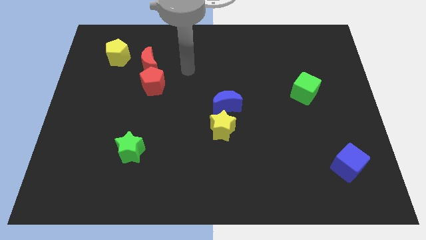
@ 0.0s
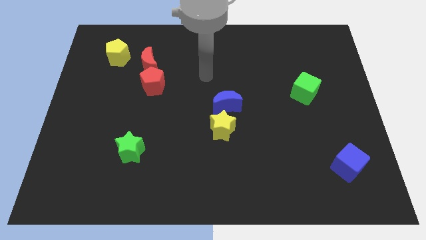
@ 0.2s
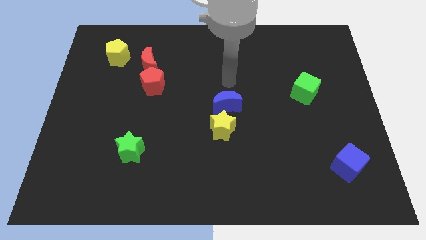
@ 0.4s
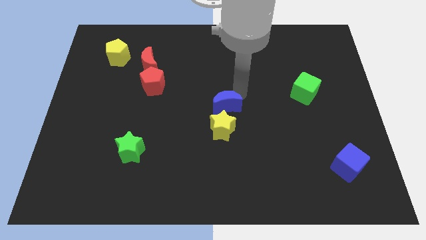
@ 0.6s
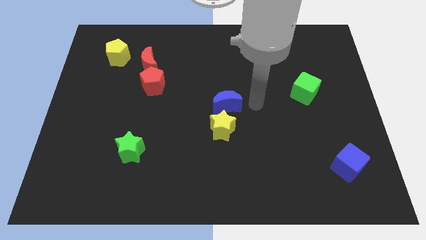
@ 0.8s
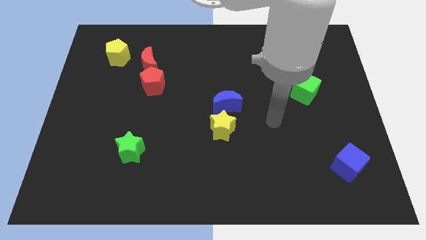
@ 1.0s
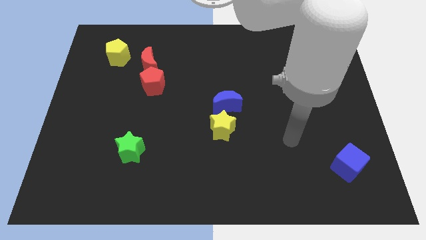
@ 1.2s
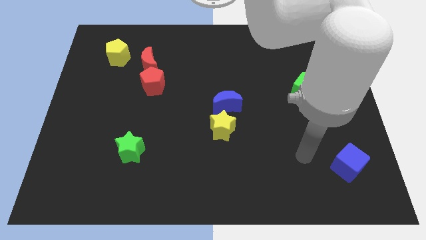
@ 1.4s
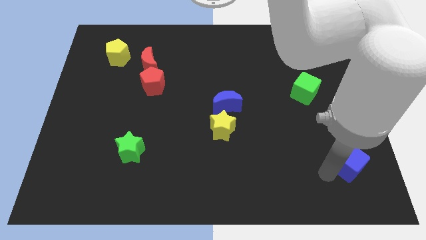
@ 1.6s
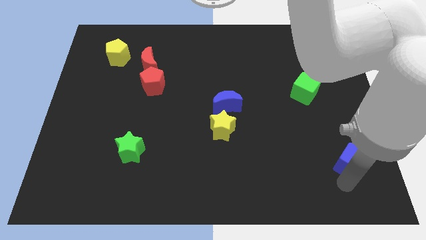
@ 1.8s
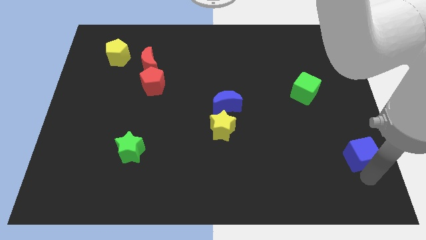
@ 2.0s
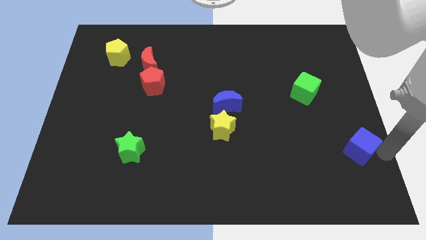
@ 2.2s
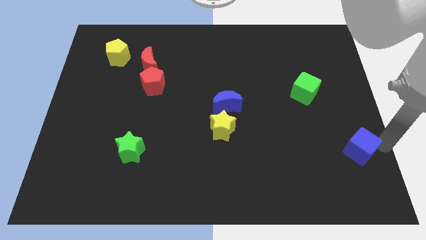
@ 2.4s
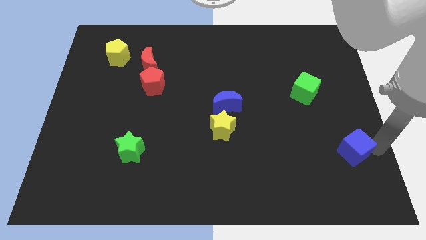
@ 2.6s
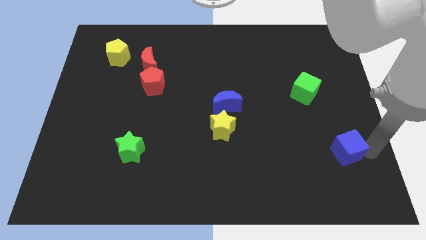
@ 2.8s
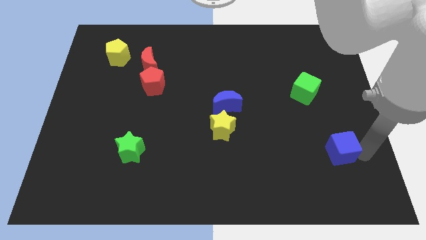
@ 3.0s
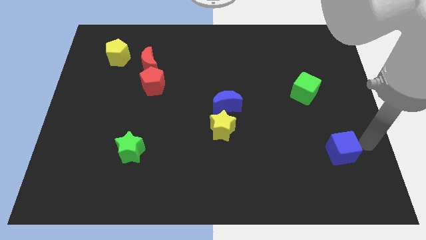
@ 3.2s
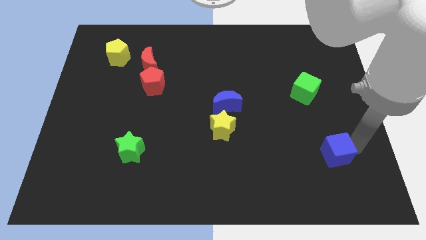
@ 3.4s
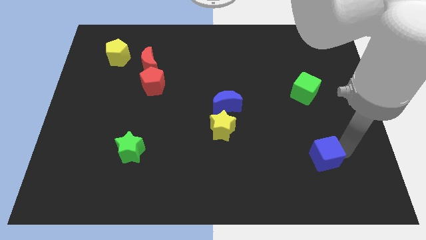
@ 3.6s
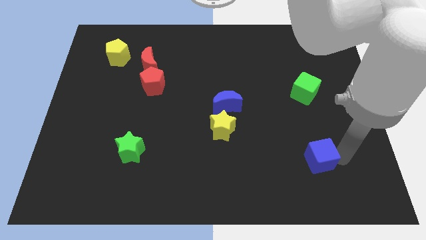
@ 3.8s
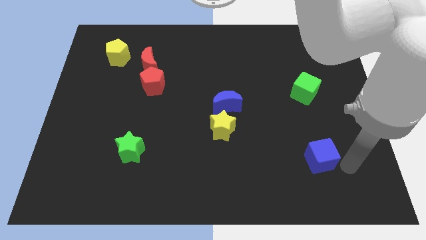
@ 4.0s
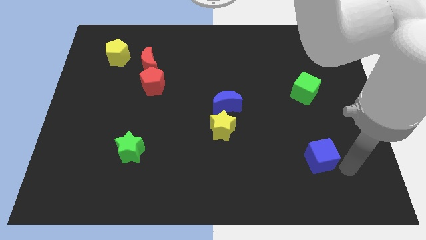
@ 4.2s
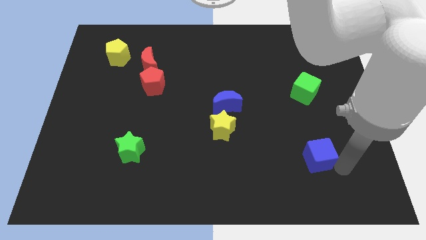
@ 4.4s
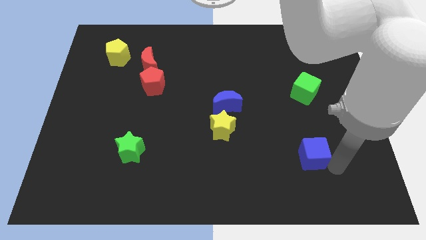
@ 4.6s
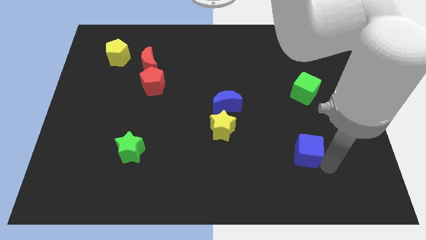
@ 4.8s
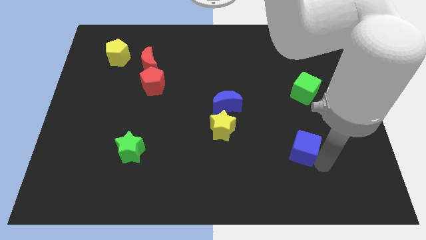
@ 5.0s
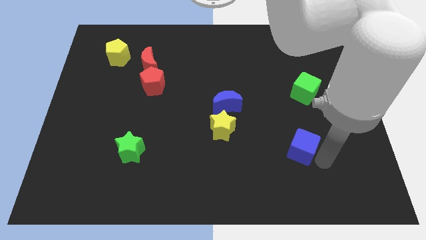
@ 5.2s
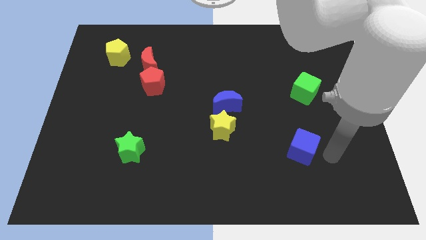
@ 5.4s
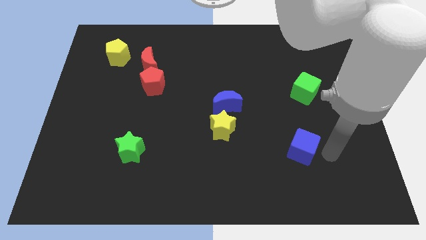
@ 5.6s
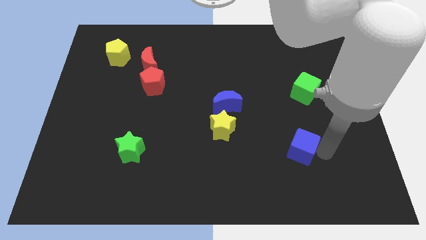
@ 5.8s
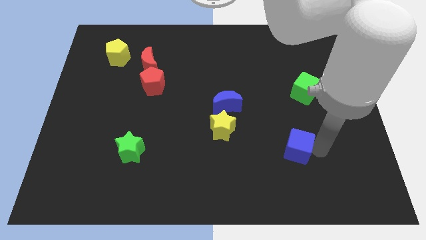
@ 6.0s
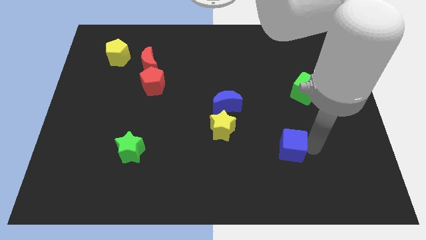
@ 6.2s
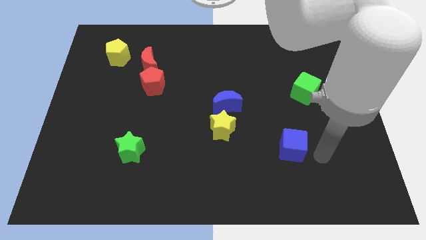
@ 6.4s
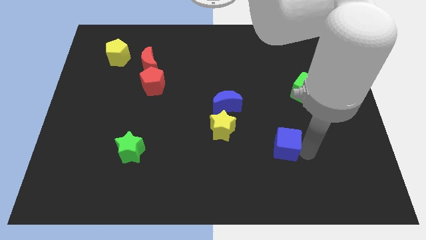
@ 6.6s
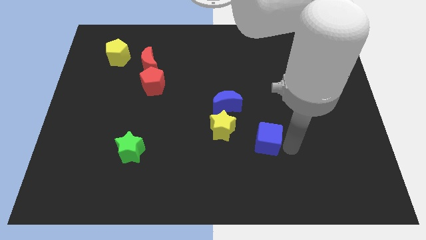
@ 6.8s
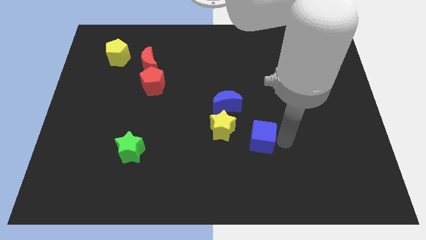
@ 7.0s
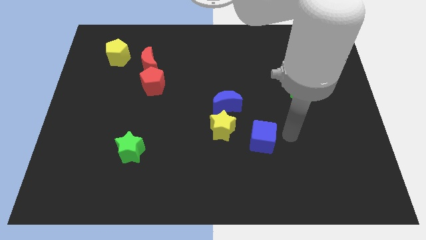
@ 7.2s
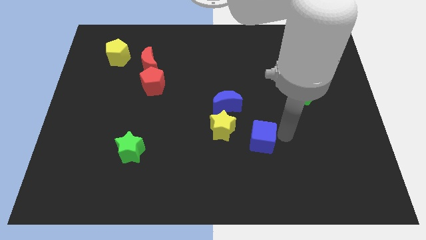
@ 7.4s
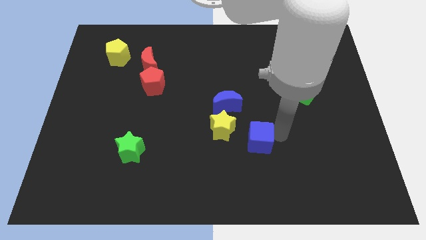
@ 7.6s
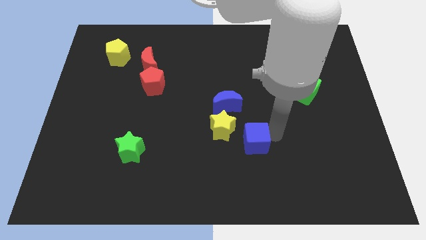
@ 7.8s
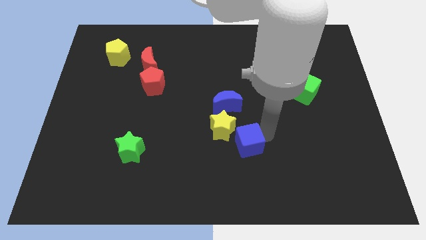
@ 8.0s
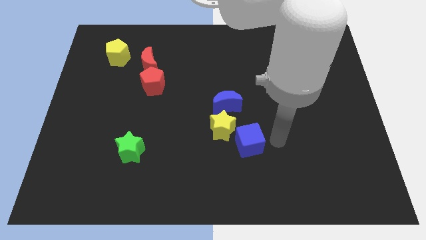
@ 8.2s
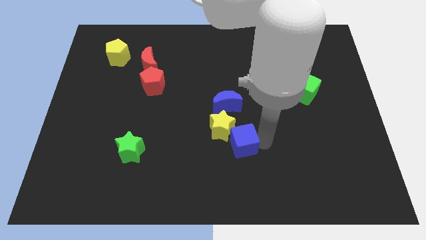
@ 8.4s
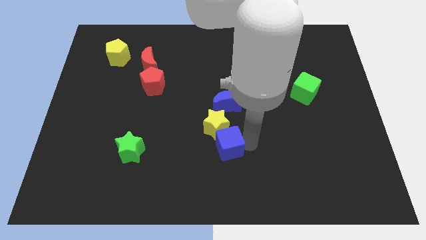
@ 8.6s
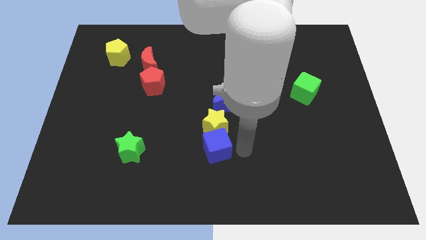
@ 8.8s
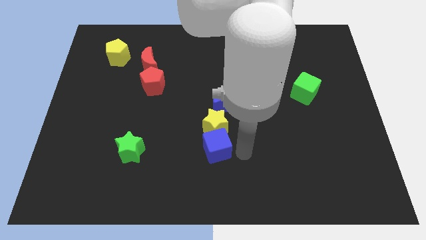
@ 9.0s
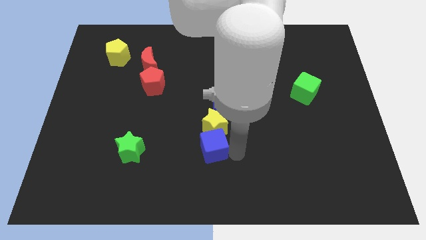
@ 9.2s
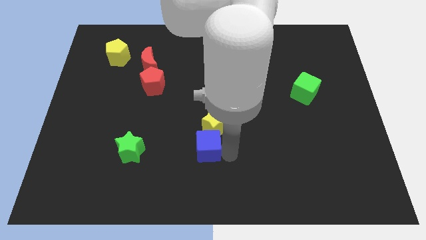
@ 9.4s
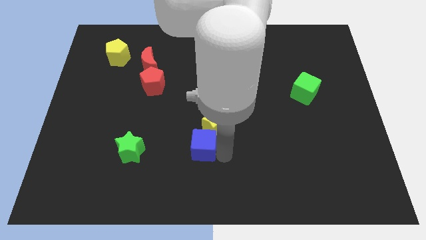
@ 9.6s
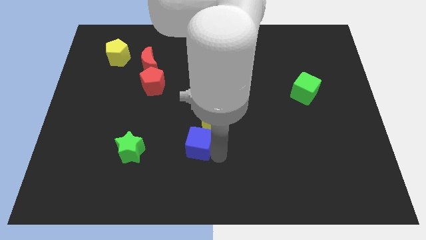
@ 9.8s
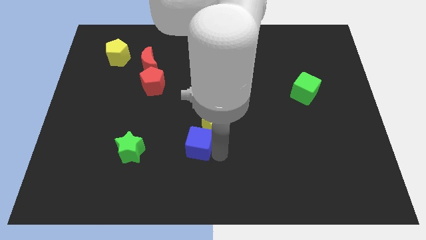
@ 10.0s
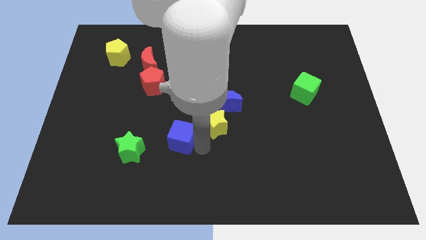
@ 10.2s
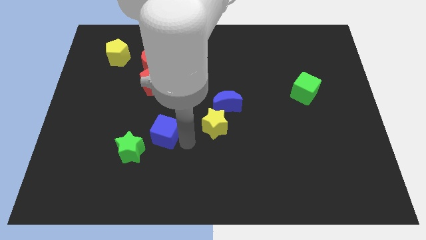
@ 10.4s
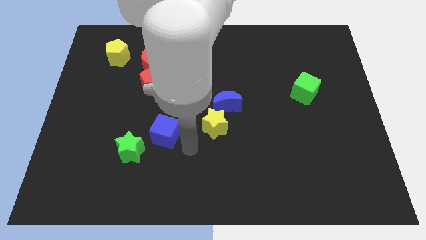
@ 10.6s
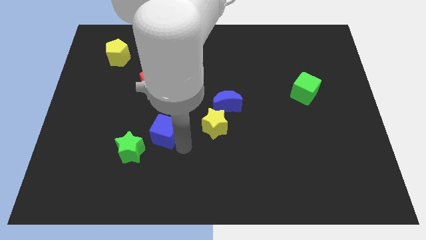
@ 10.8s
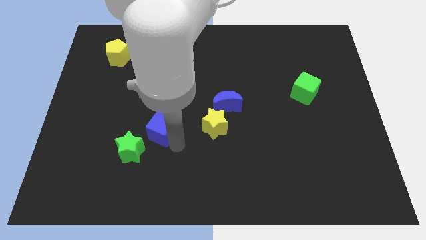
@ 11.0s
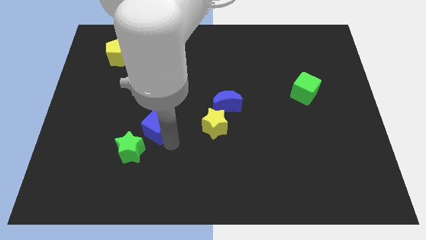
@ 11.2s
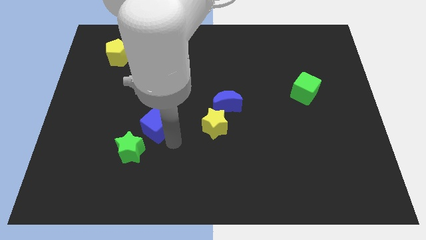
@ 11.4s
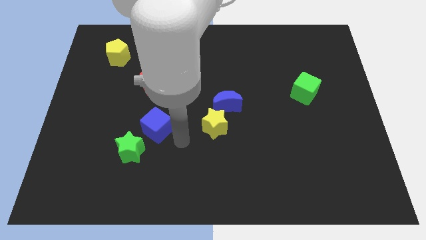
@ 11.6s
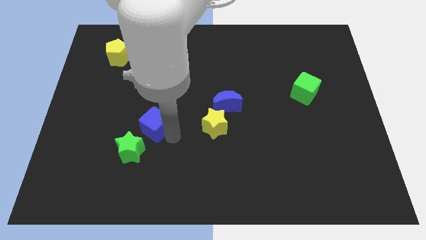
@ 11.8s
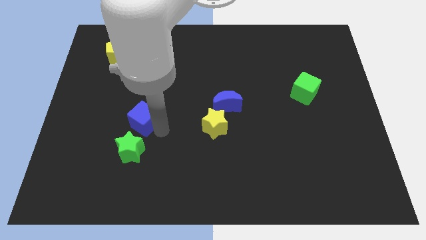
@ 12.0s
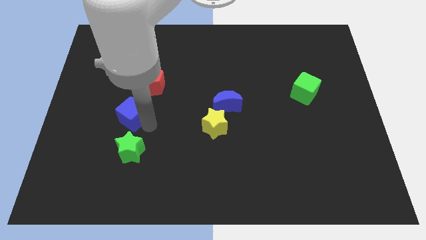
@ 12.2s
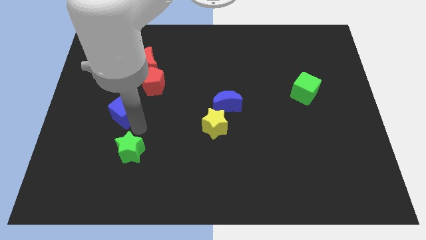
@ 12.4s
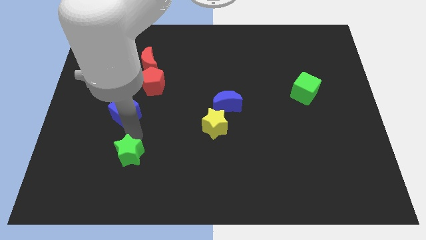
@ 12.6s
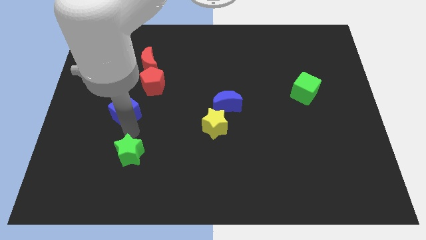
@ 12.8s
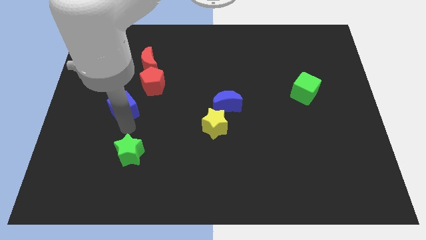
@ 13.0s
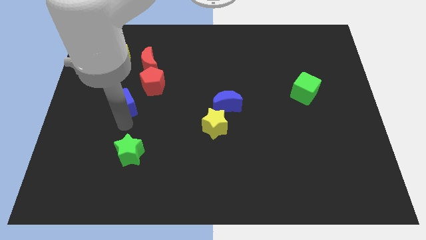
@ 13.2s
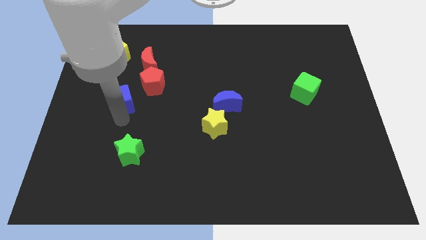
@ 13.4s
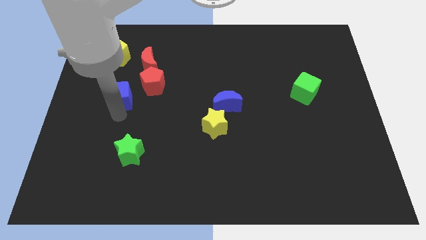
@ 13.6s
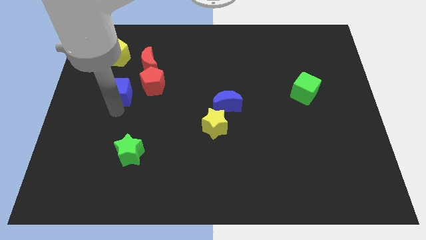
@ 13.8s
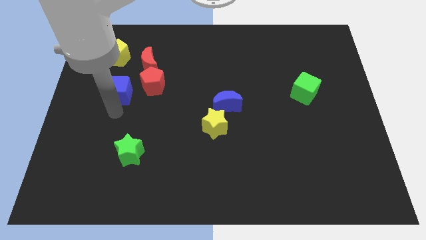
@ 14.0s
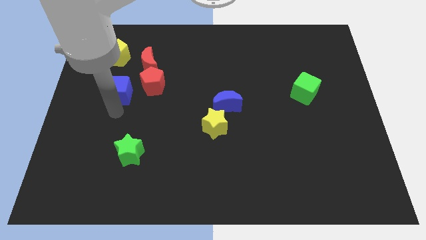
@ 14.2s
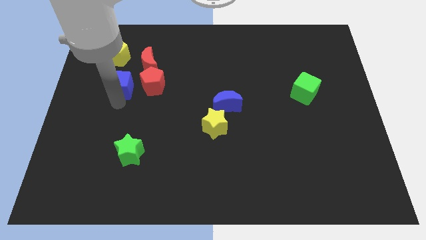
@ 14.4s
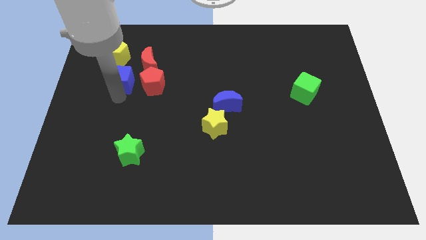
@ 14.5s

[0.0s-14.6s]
slide the blue cube to the top left side of the red pentagon
